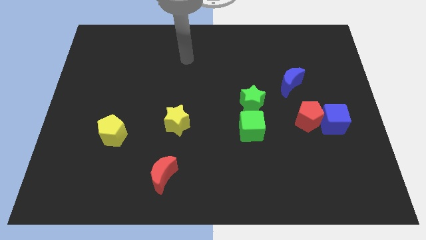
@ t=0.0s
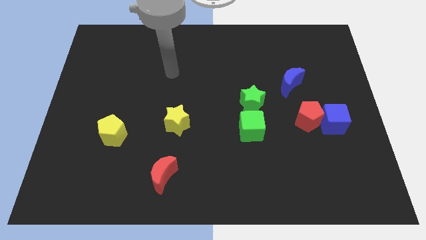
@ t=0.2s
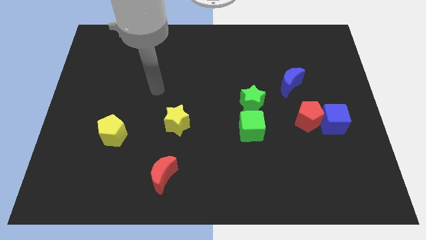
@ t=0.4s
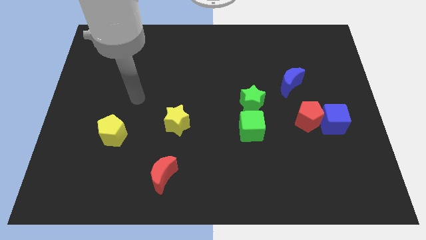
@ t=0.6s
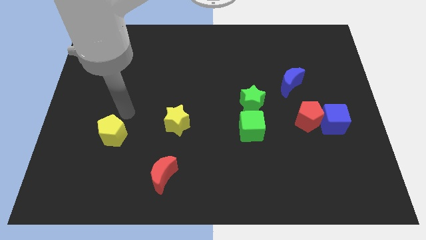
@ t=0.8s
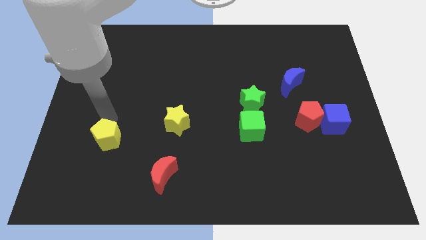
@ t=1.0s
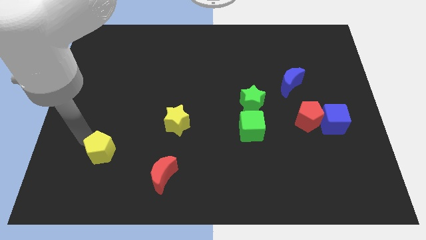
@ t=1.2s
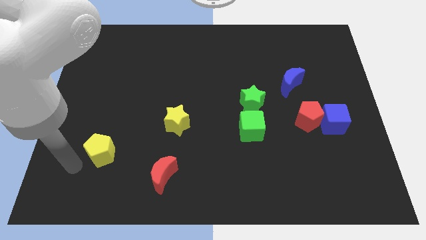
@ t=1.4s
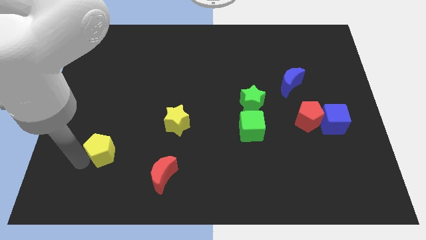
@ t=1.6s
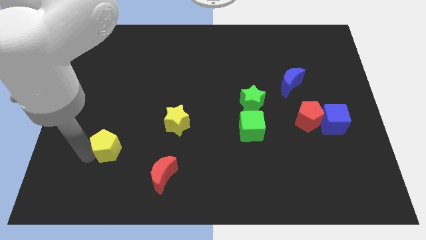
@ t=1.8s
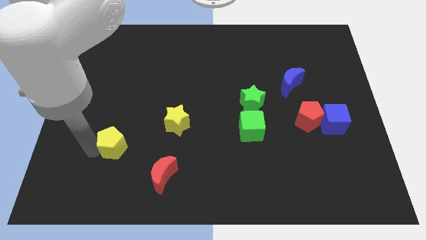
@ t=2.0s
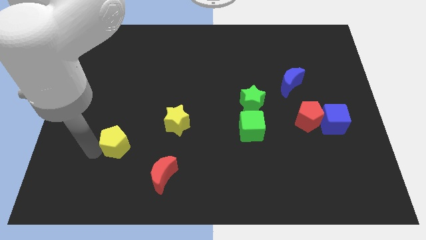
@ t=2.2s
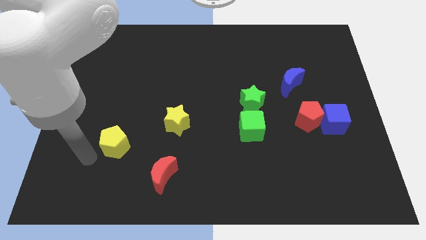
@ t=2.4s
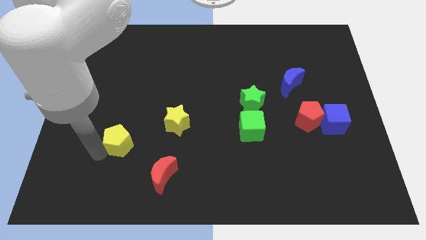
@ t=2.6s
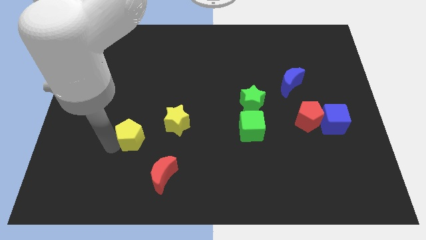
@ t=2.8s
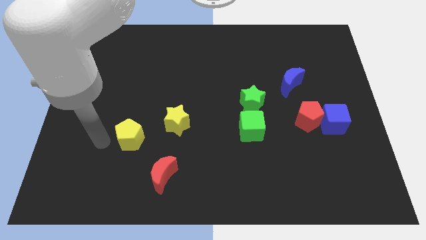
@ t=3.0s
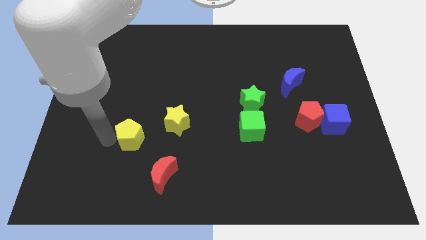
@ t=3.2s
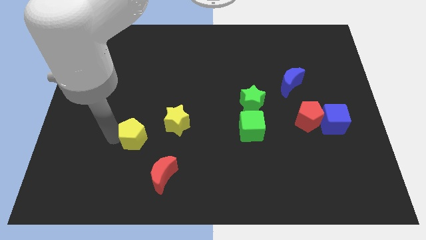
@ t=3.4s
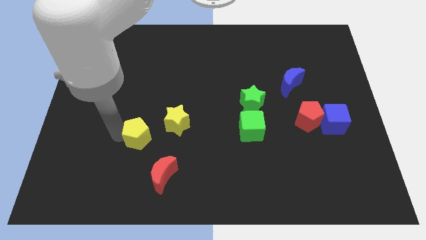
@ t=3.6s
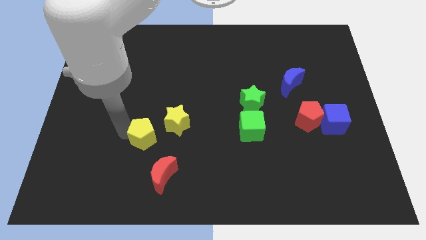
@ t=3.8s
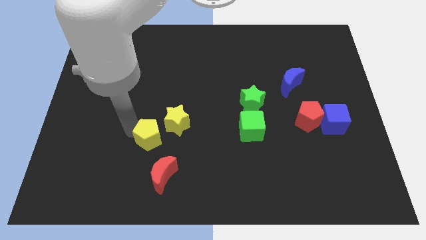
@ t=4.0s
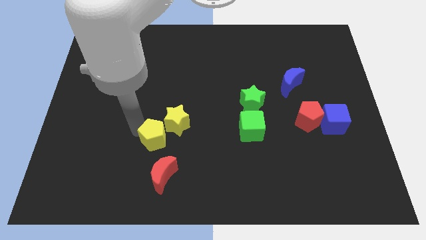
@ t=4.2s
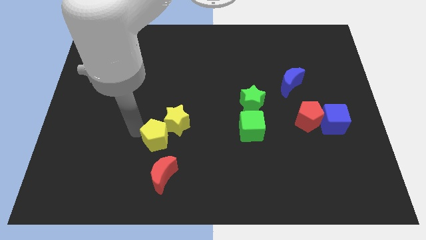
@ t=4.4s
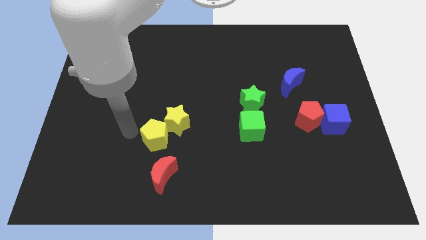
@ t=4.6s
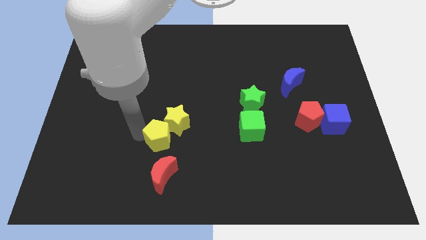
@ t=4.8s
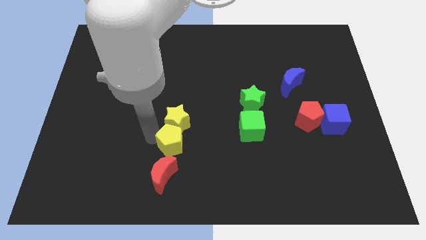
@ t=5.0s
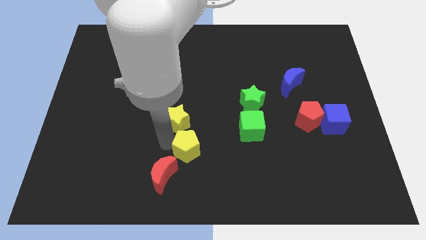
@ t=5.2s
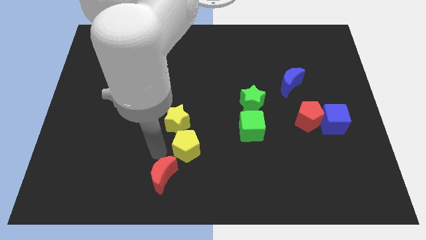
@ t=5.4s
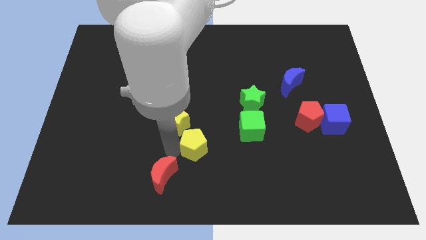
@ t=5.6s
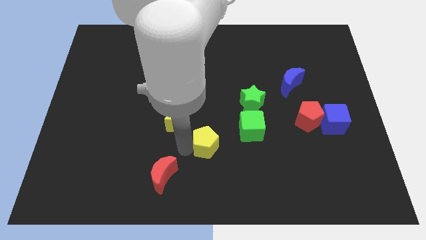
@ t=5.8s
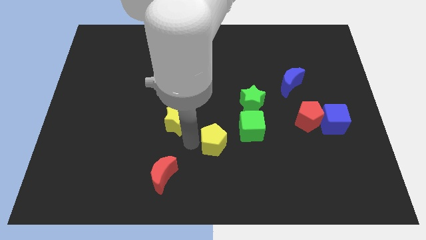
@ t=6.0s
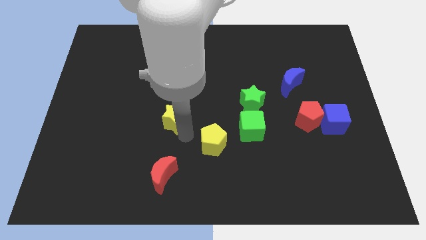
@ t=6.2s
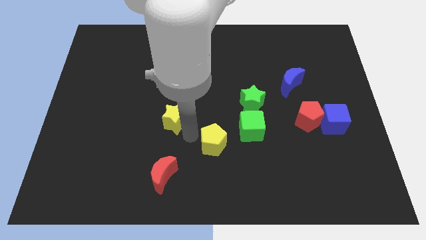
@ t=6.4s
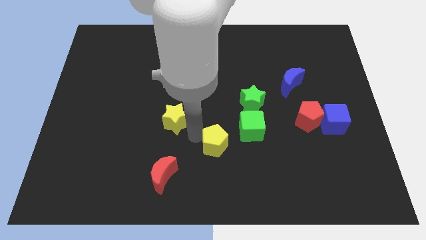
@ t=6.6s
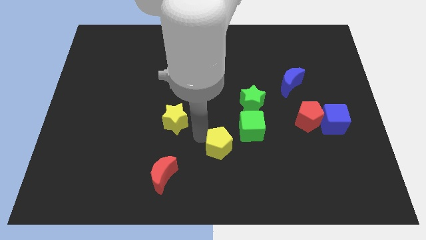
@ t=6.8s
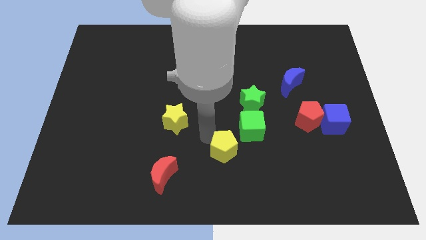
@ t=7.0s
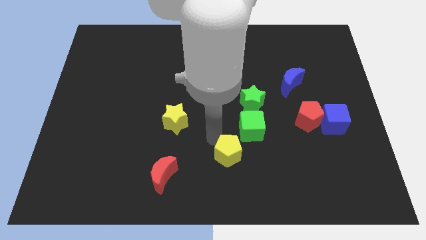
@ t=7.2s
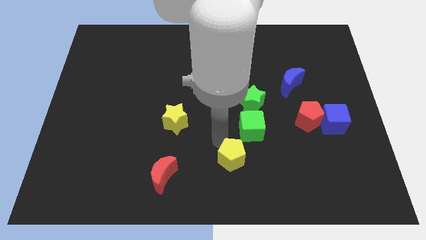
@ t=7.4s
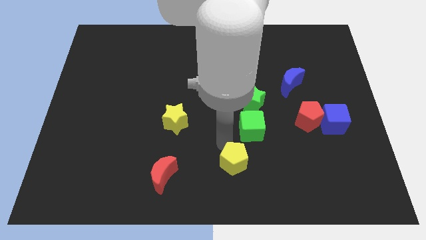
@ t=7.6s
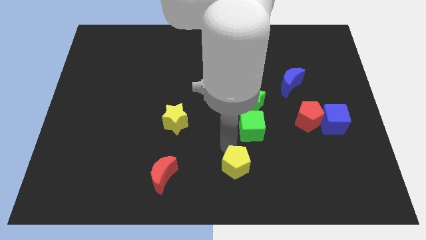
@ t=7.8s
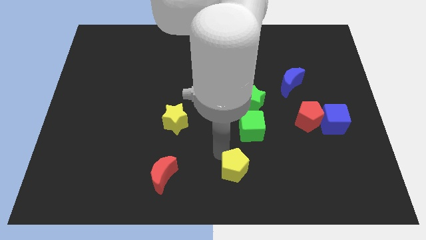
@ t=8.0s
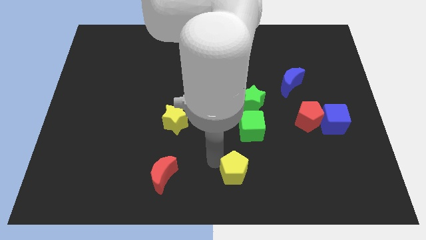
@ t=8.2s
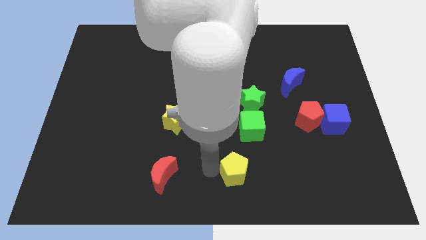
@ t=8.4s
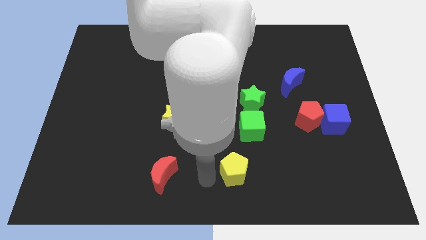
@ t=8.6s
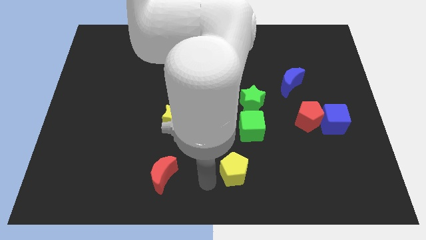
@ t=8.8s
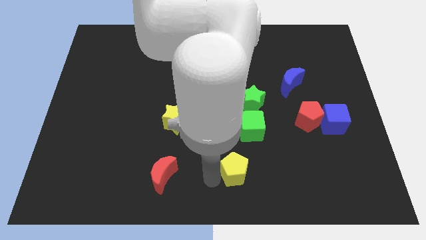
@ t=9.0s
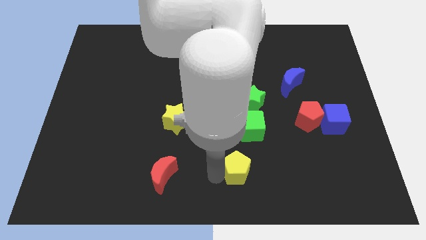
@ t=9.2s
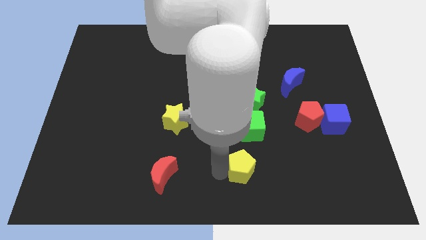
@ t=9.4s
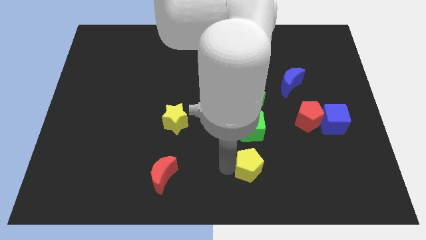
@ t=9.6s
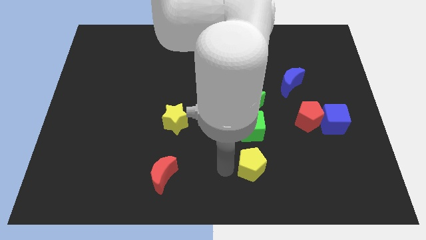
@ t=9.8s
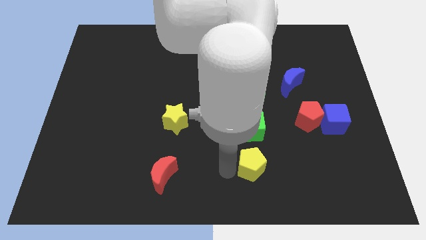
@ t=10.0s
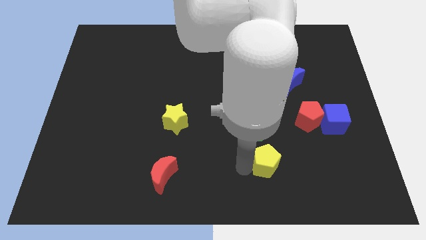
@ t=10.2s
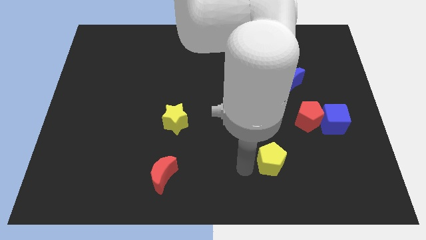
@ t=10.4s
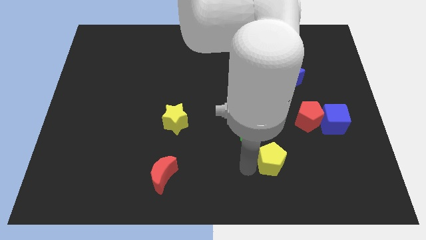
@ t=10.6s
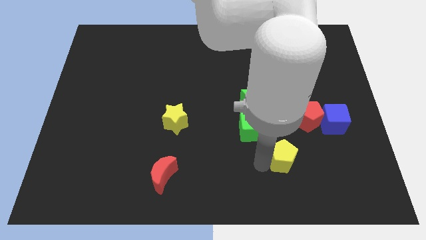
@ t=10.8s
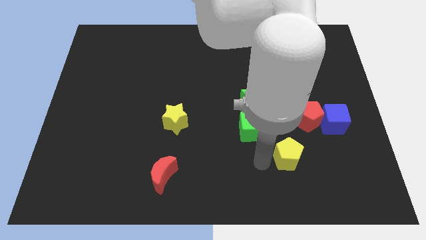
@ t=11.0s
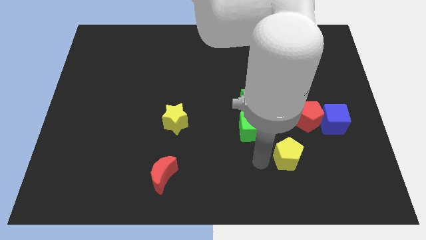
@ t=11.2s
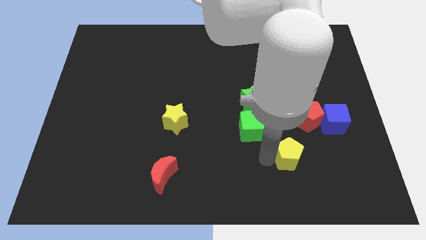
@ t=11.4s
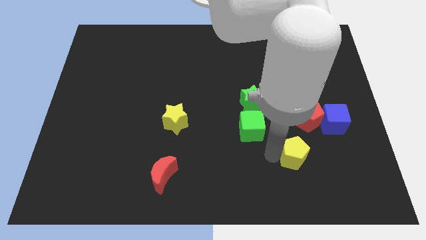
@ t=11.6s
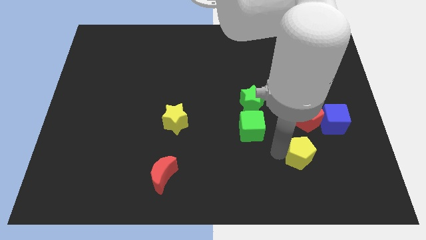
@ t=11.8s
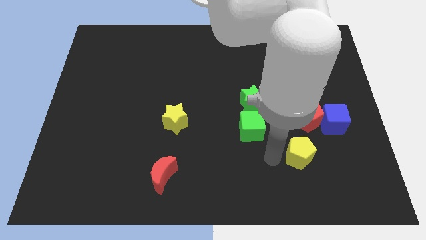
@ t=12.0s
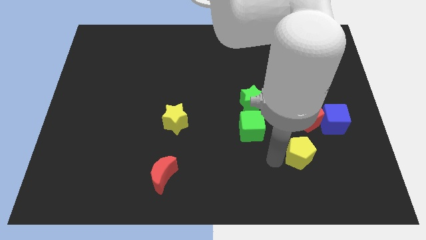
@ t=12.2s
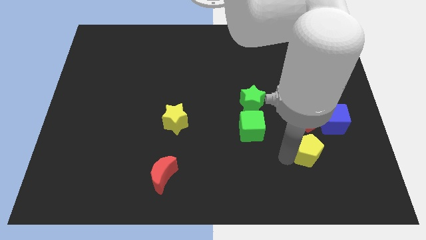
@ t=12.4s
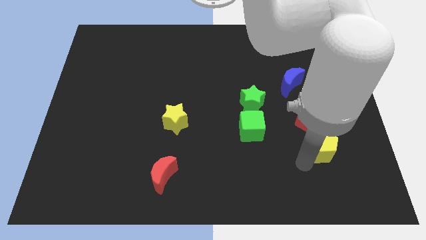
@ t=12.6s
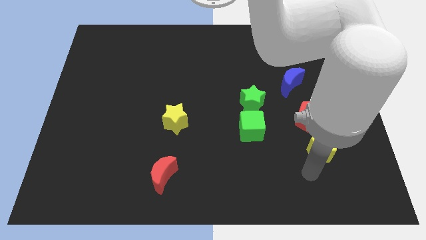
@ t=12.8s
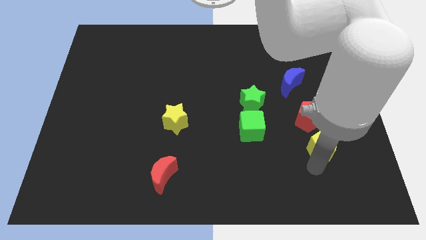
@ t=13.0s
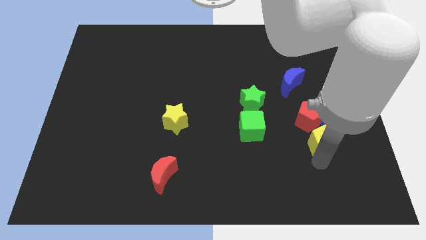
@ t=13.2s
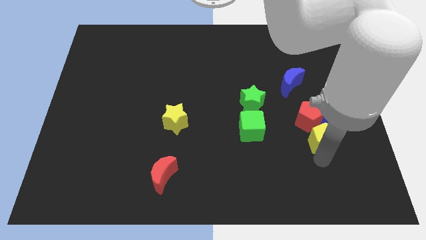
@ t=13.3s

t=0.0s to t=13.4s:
put the yellow pentagon towards the blue cube
